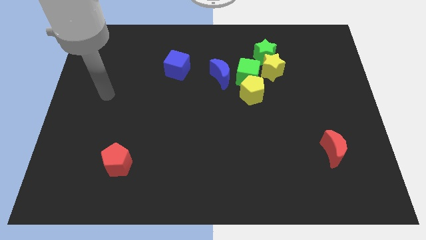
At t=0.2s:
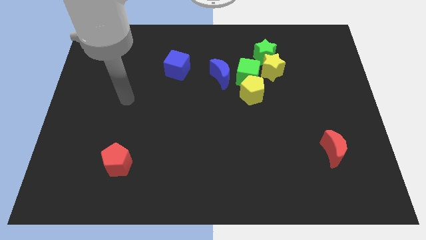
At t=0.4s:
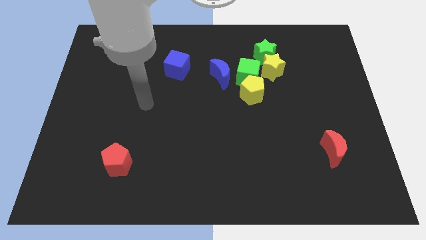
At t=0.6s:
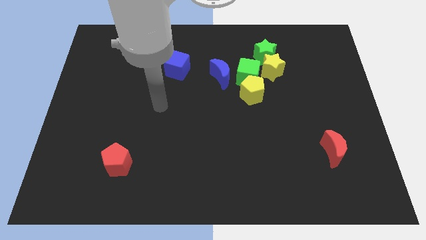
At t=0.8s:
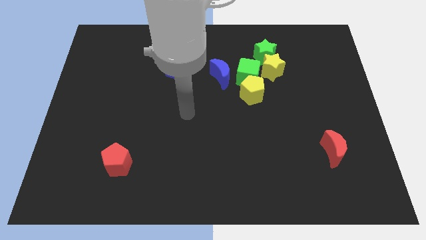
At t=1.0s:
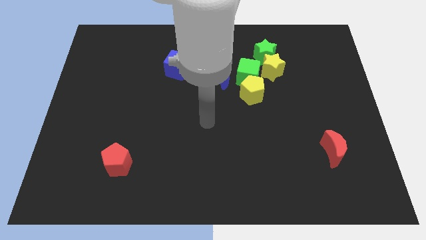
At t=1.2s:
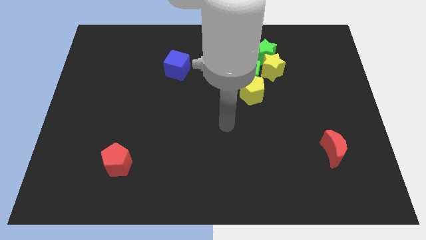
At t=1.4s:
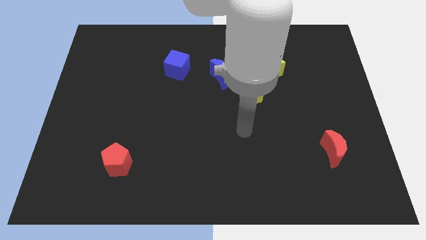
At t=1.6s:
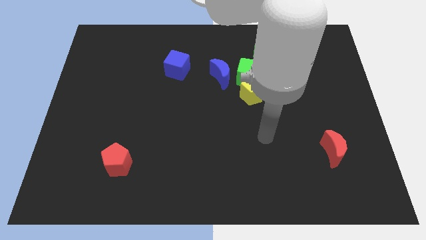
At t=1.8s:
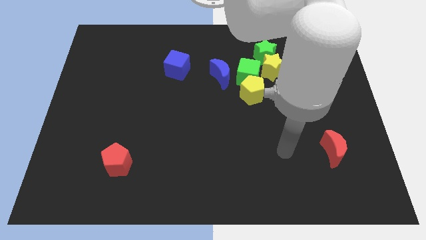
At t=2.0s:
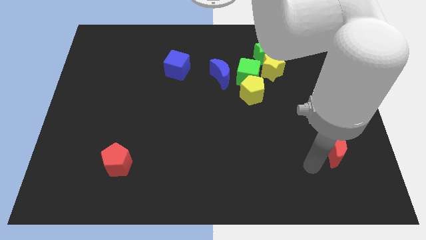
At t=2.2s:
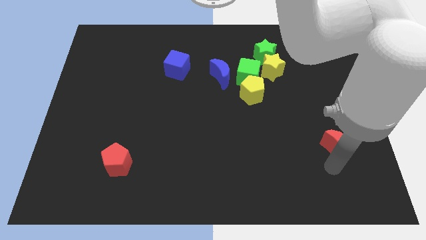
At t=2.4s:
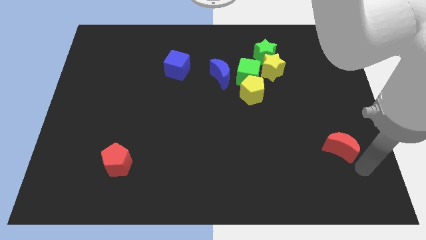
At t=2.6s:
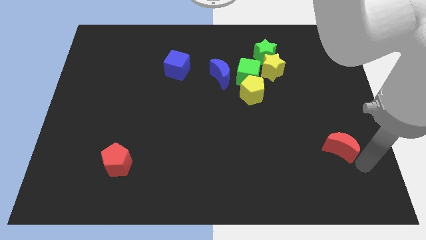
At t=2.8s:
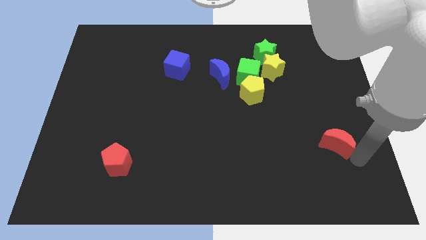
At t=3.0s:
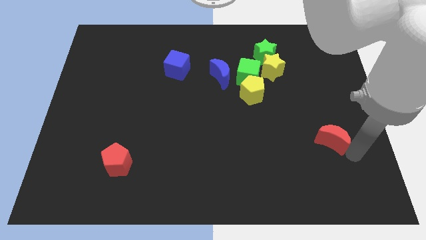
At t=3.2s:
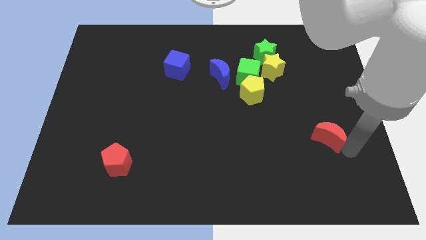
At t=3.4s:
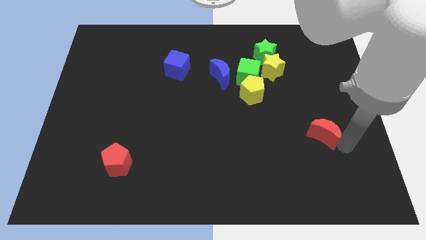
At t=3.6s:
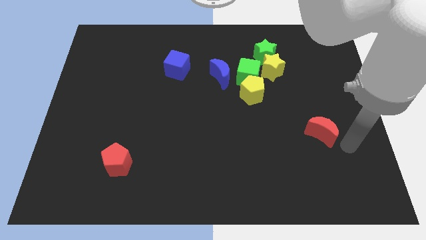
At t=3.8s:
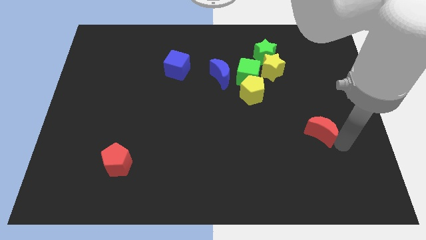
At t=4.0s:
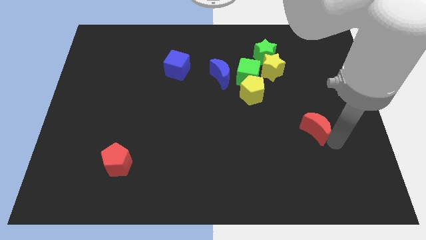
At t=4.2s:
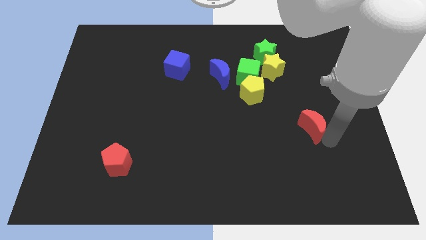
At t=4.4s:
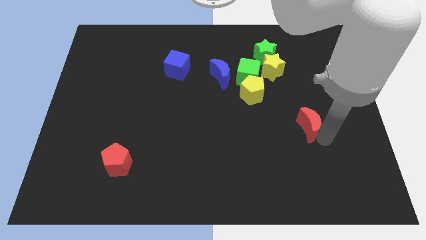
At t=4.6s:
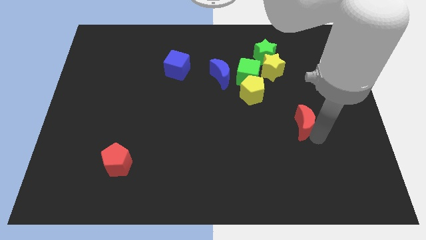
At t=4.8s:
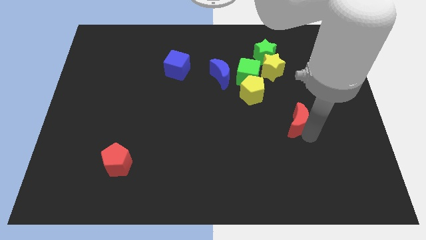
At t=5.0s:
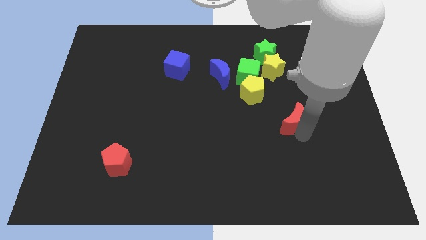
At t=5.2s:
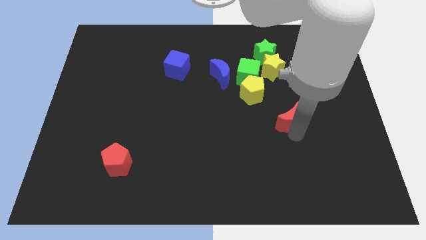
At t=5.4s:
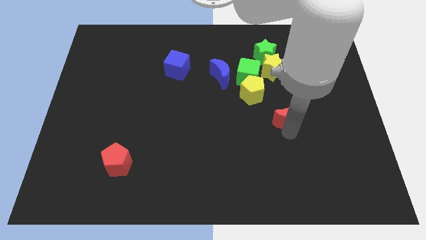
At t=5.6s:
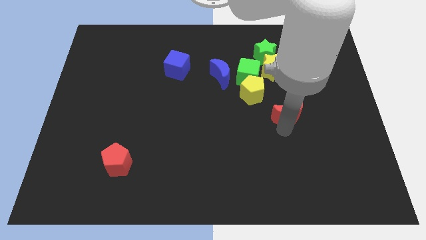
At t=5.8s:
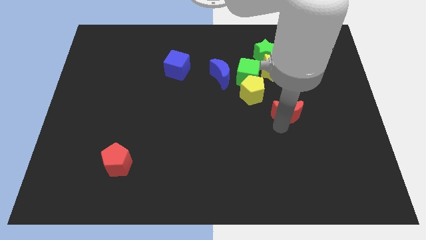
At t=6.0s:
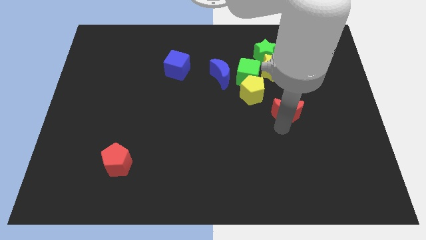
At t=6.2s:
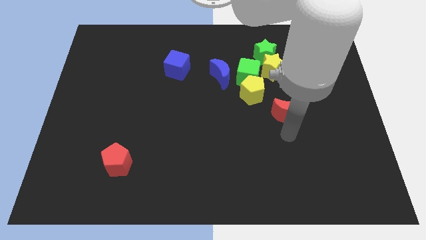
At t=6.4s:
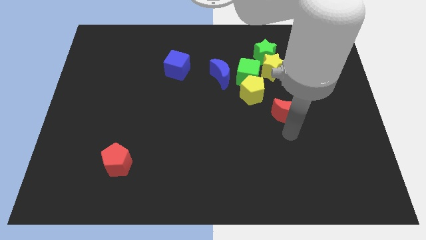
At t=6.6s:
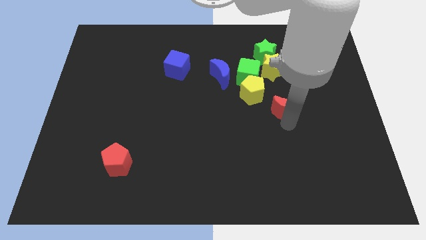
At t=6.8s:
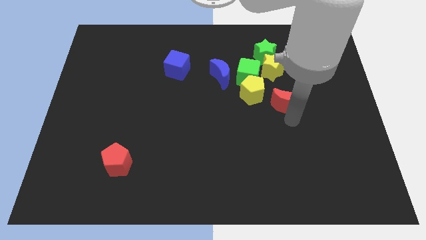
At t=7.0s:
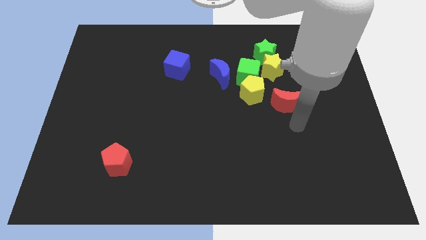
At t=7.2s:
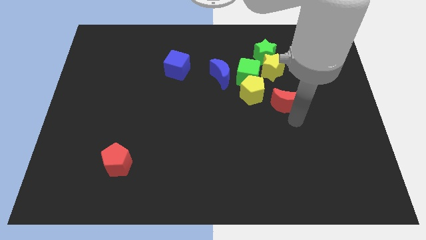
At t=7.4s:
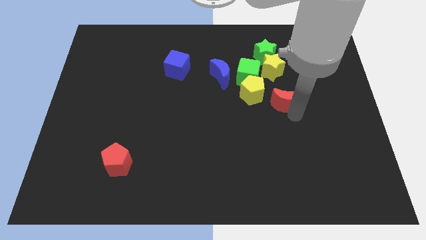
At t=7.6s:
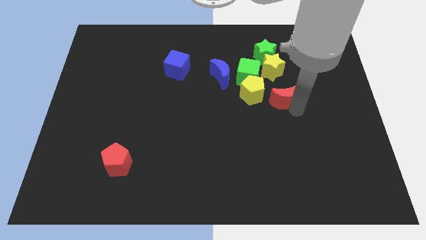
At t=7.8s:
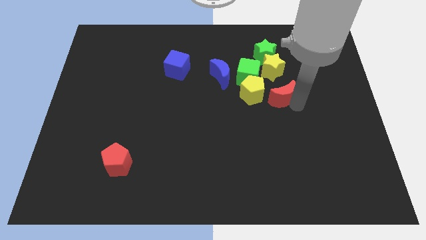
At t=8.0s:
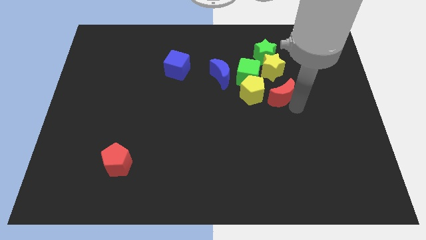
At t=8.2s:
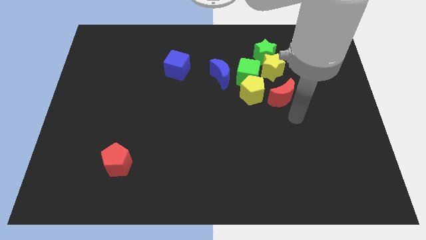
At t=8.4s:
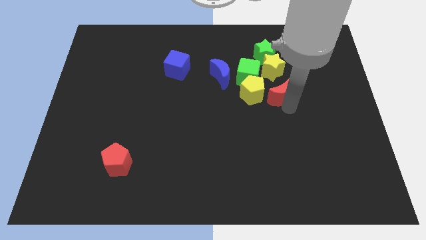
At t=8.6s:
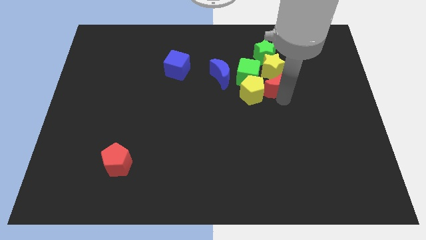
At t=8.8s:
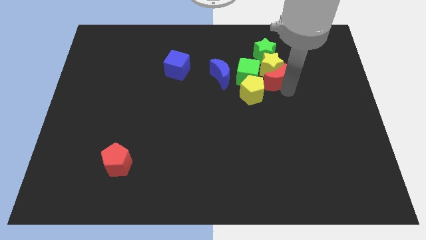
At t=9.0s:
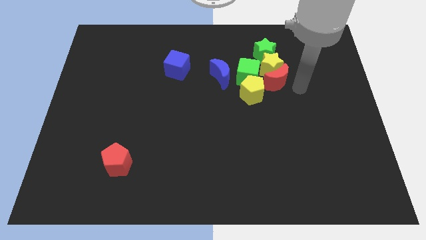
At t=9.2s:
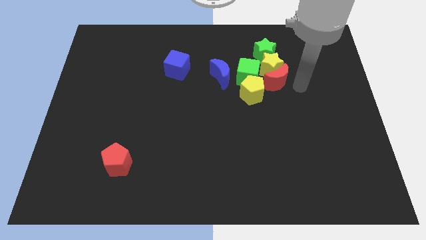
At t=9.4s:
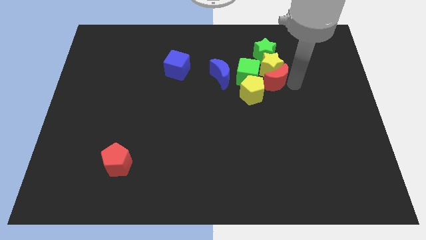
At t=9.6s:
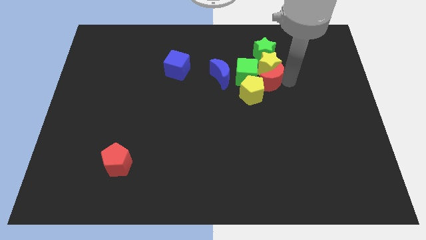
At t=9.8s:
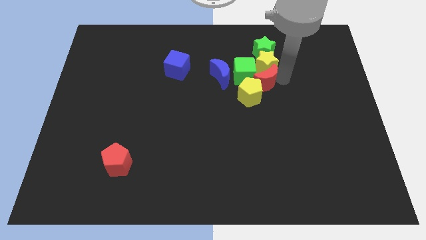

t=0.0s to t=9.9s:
slide the red moon close to the green cube

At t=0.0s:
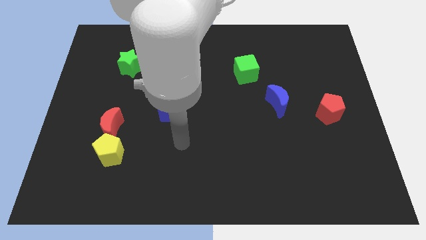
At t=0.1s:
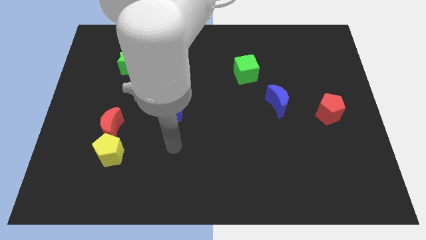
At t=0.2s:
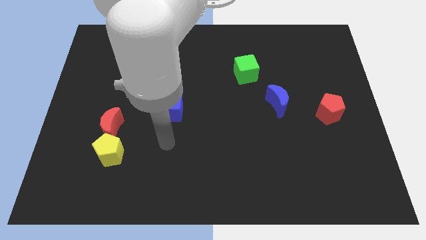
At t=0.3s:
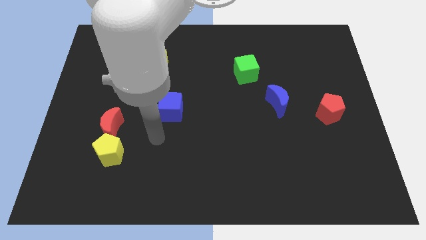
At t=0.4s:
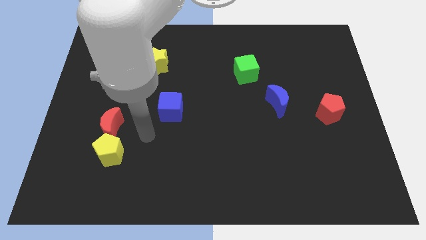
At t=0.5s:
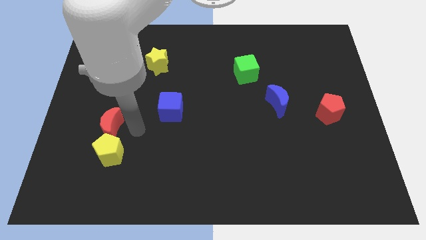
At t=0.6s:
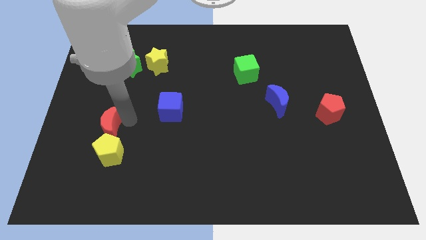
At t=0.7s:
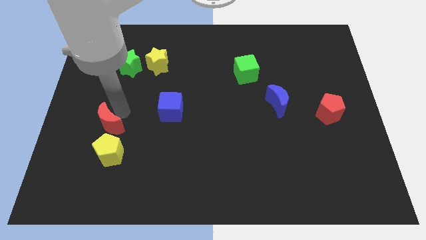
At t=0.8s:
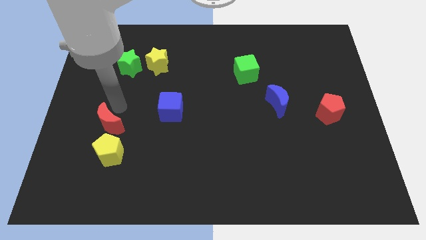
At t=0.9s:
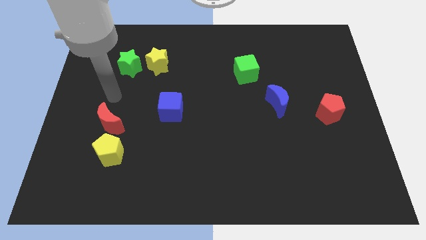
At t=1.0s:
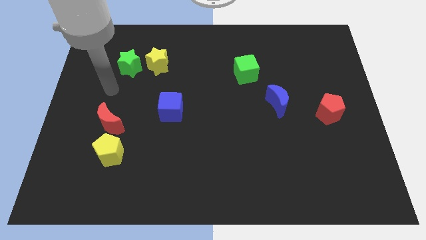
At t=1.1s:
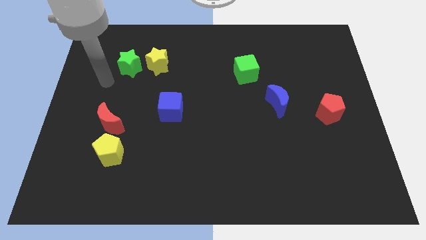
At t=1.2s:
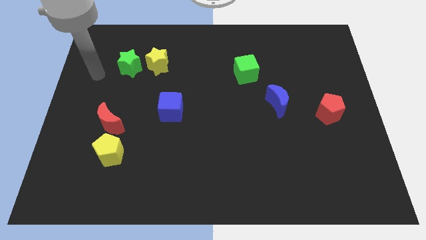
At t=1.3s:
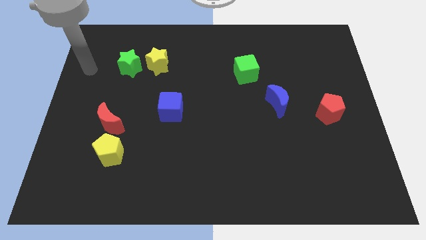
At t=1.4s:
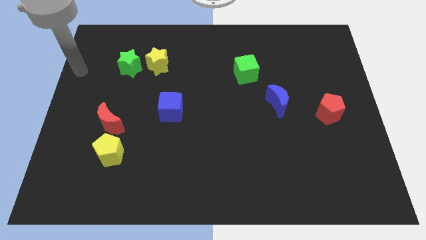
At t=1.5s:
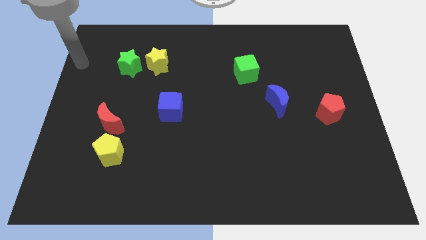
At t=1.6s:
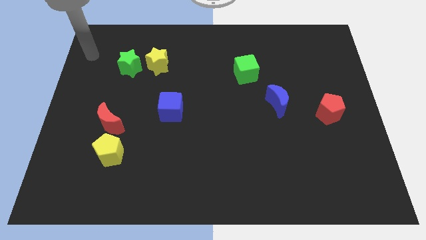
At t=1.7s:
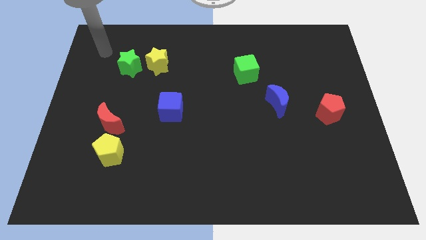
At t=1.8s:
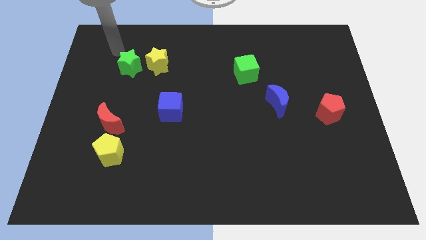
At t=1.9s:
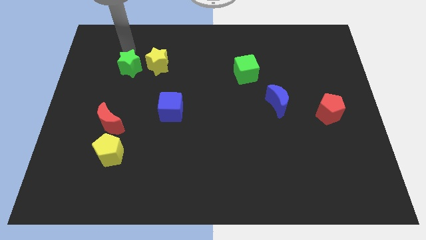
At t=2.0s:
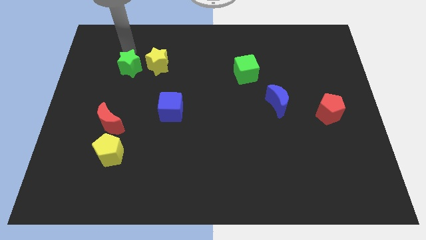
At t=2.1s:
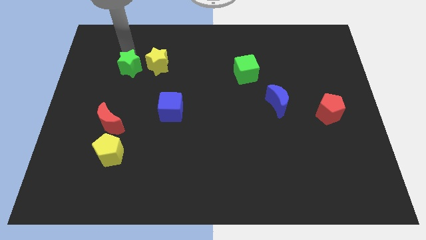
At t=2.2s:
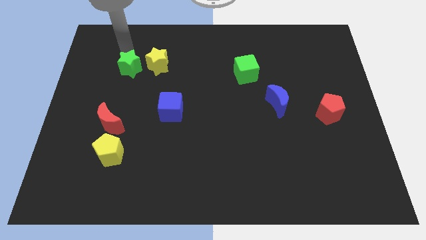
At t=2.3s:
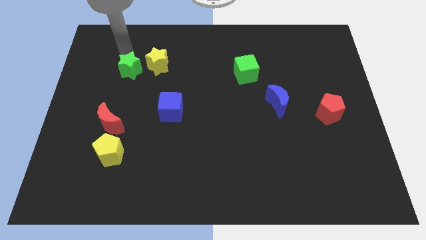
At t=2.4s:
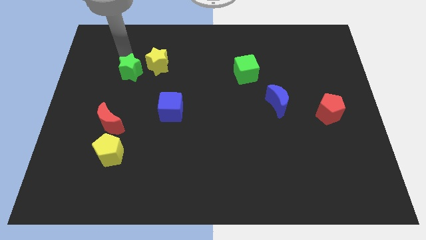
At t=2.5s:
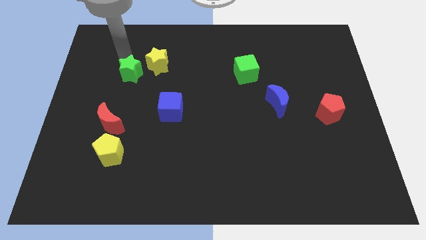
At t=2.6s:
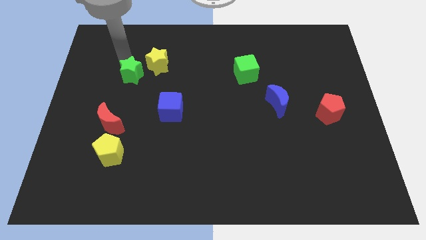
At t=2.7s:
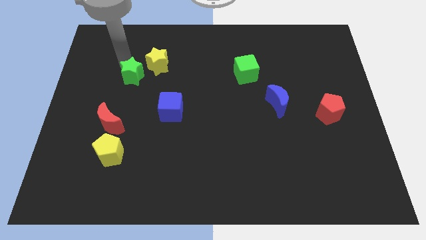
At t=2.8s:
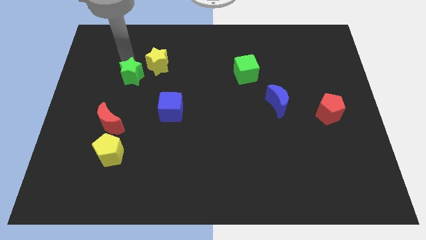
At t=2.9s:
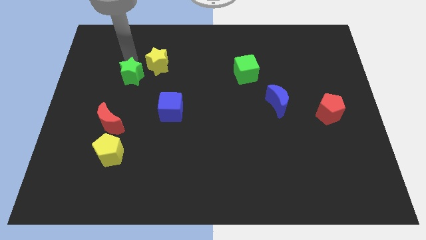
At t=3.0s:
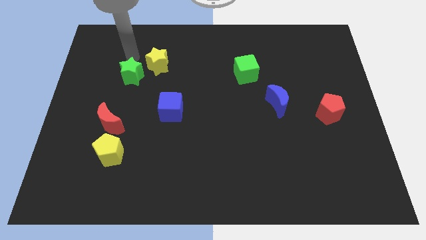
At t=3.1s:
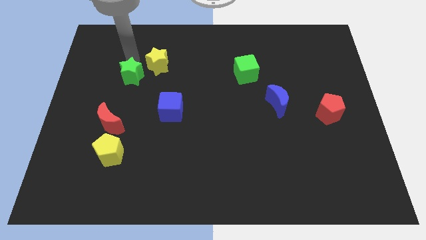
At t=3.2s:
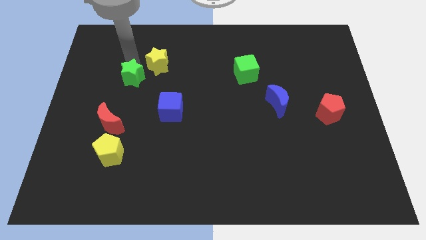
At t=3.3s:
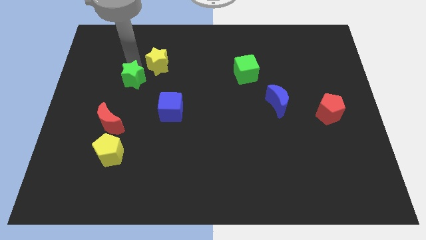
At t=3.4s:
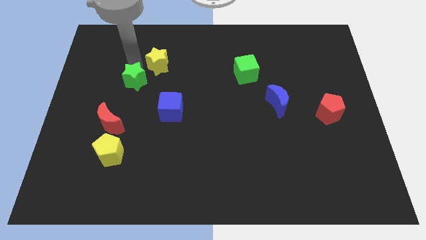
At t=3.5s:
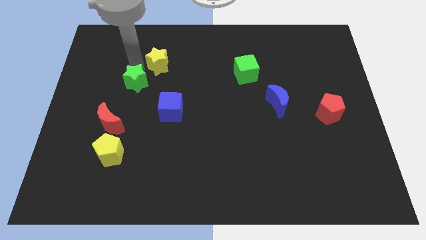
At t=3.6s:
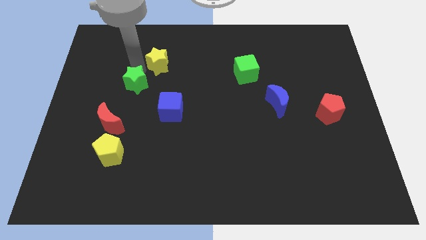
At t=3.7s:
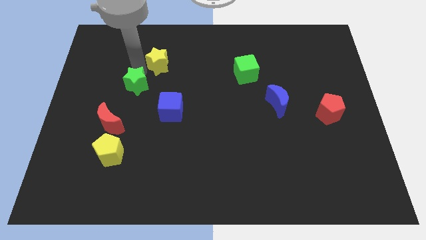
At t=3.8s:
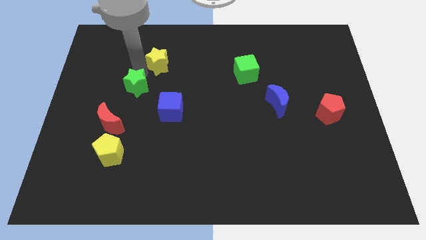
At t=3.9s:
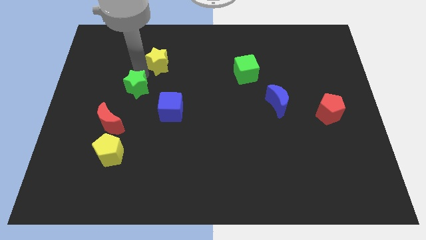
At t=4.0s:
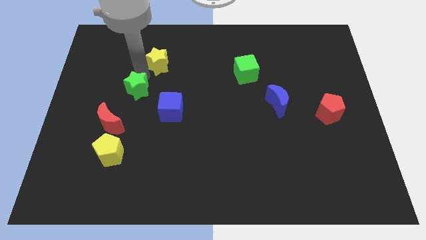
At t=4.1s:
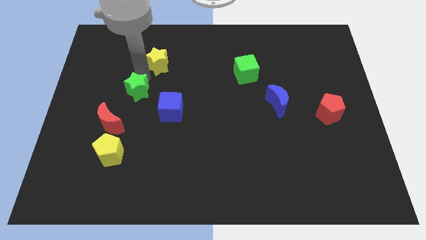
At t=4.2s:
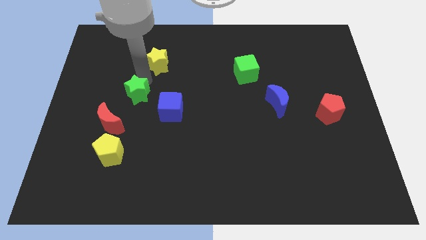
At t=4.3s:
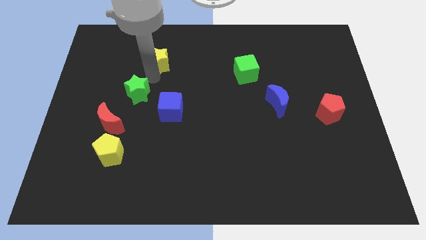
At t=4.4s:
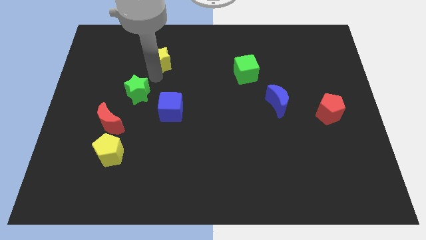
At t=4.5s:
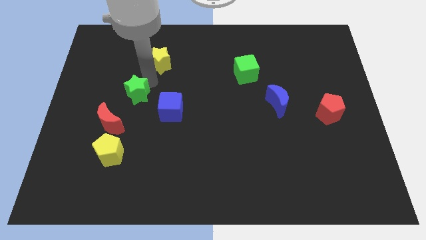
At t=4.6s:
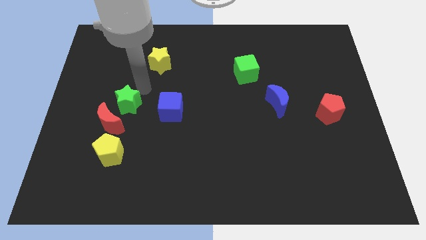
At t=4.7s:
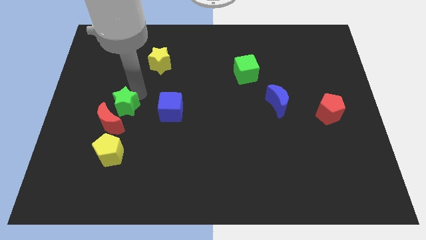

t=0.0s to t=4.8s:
put the green star to the red moon
